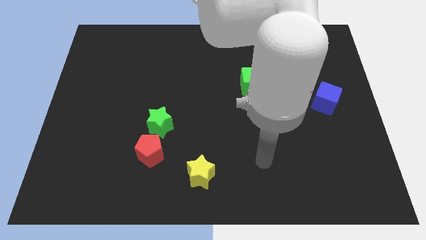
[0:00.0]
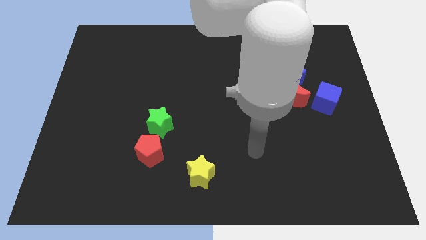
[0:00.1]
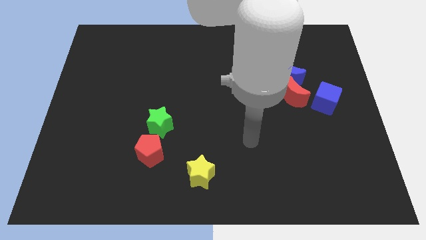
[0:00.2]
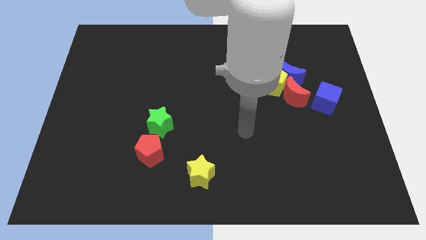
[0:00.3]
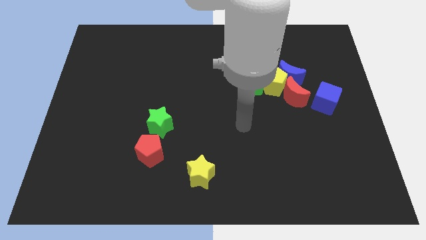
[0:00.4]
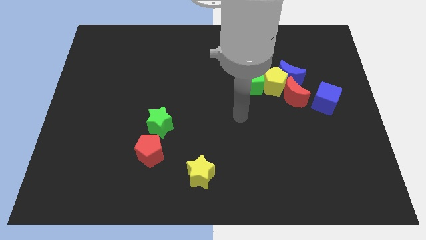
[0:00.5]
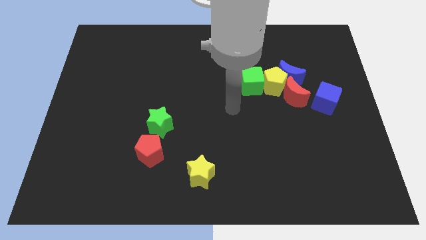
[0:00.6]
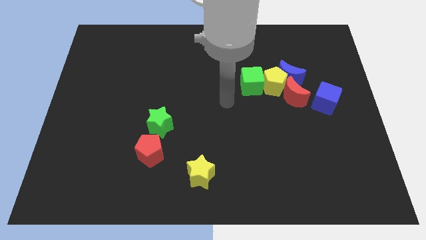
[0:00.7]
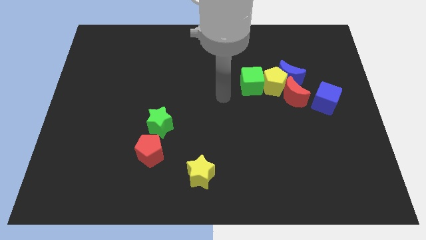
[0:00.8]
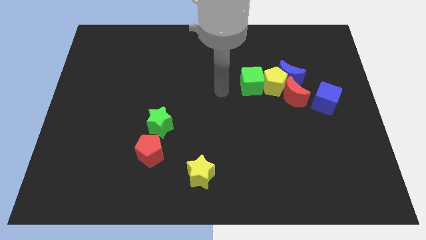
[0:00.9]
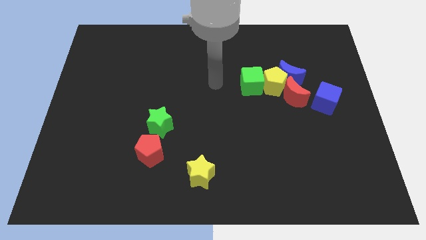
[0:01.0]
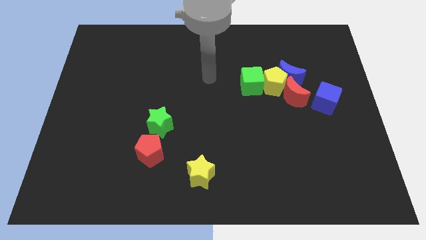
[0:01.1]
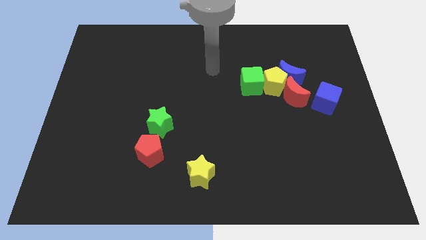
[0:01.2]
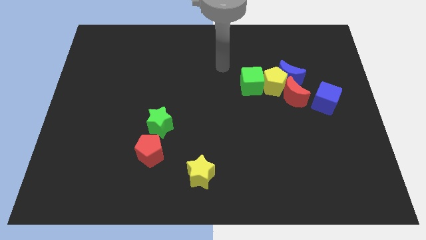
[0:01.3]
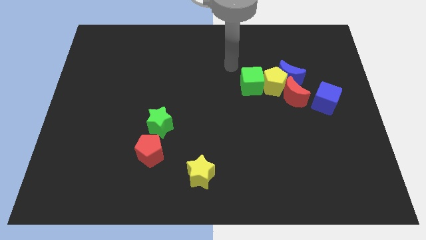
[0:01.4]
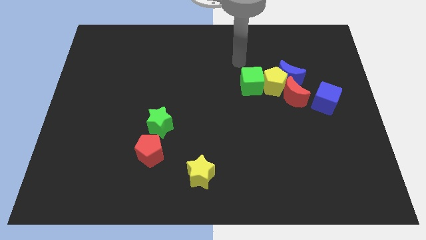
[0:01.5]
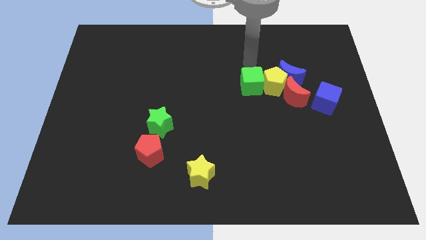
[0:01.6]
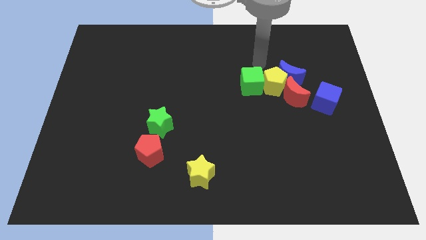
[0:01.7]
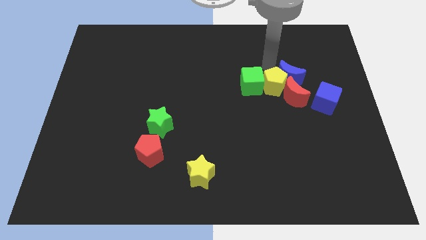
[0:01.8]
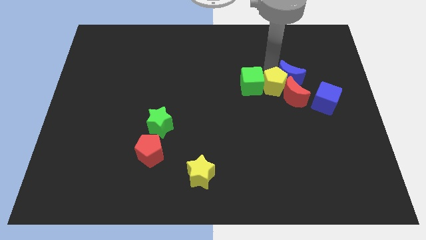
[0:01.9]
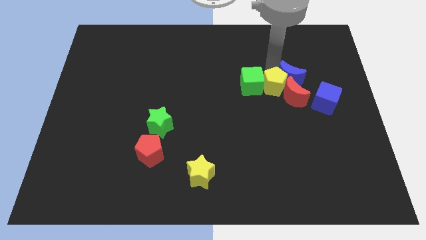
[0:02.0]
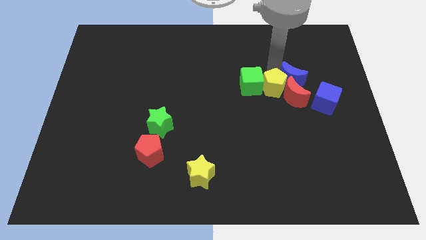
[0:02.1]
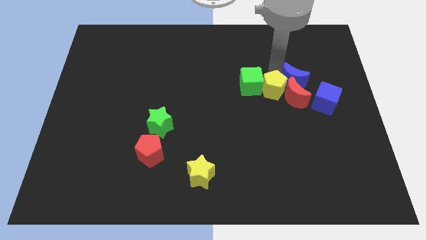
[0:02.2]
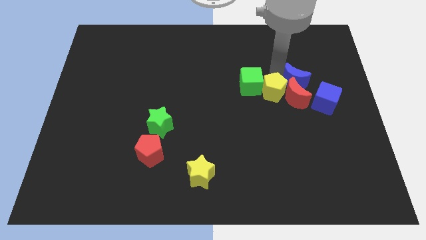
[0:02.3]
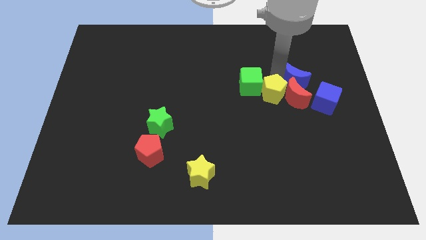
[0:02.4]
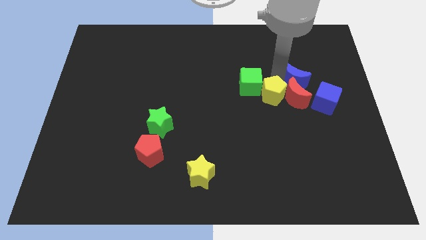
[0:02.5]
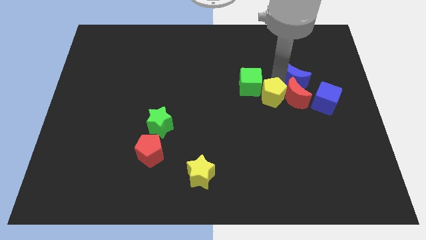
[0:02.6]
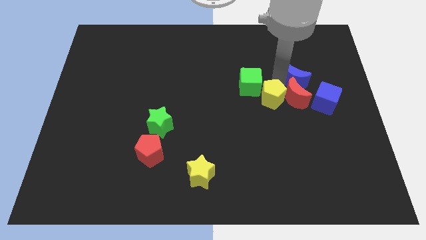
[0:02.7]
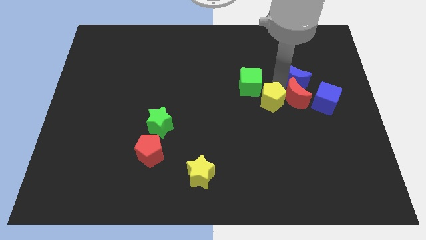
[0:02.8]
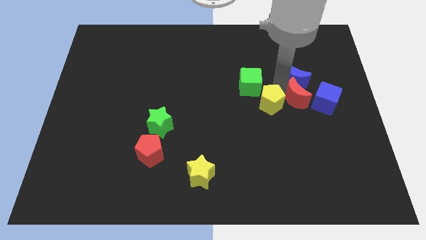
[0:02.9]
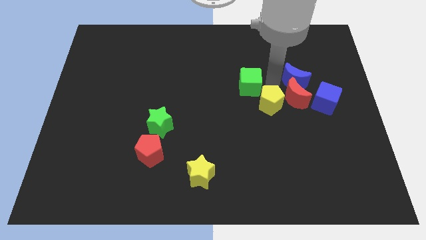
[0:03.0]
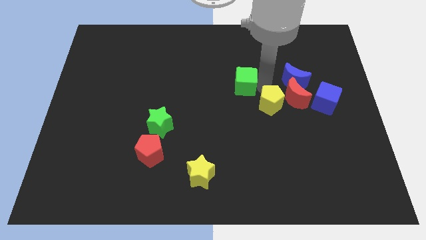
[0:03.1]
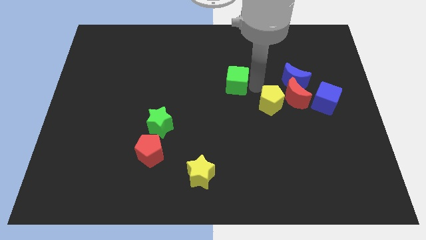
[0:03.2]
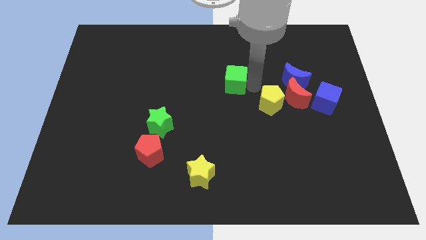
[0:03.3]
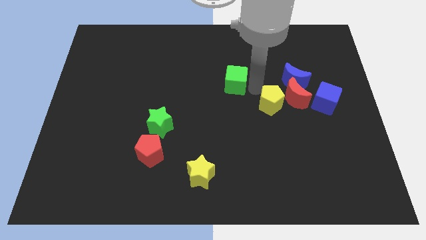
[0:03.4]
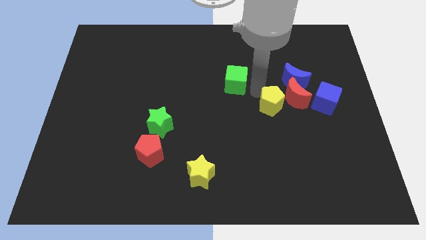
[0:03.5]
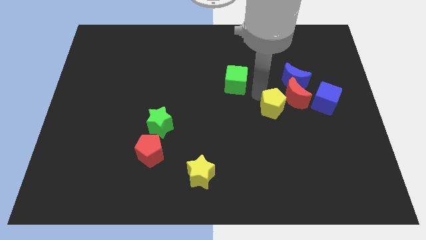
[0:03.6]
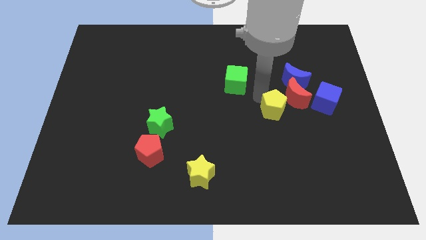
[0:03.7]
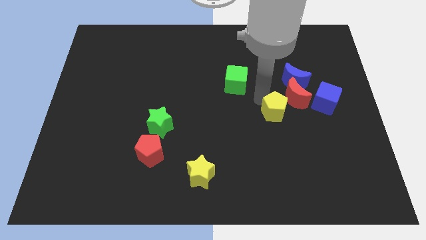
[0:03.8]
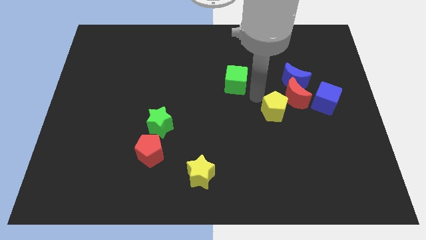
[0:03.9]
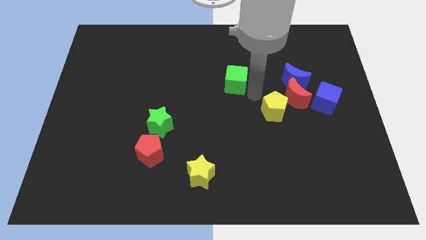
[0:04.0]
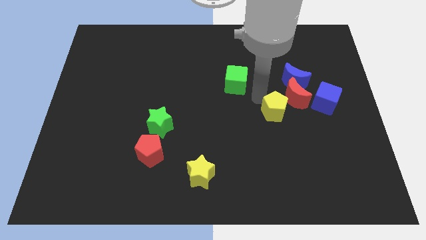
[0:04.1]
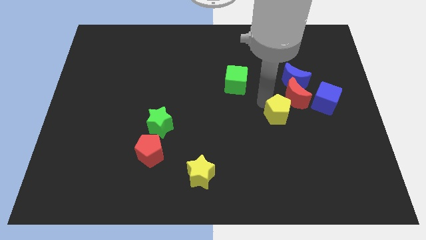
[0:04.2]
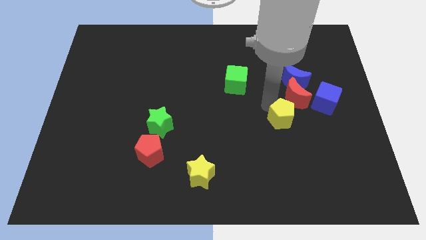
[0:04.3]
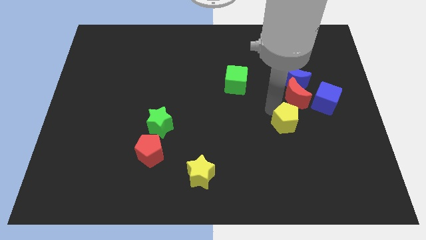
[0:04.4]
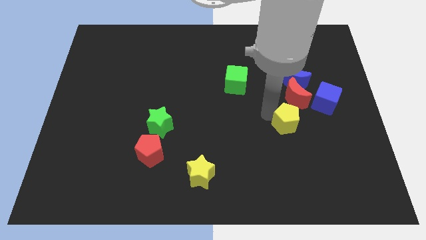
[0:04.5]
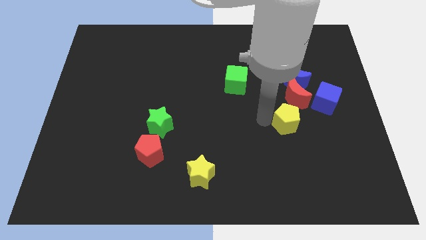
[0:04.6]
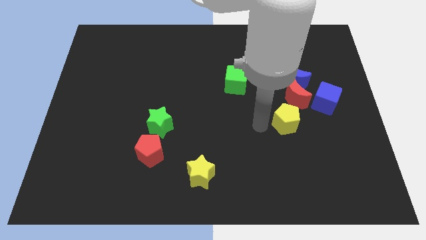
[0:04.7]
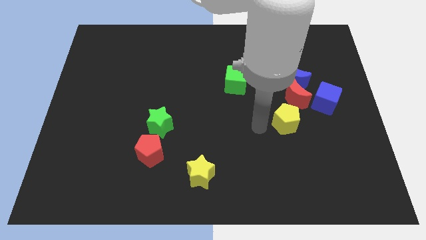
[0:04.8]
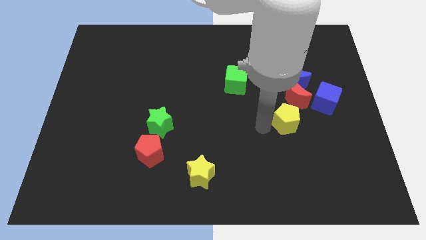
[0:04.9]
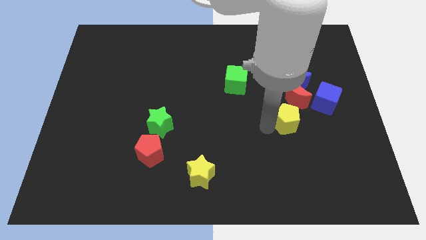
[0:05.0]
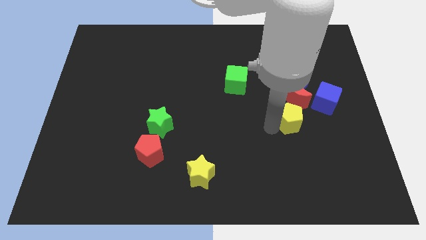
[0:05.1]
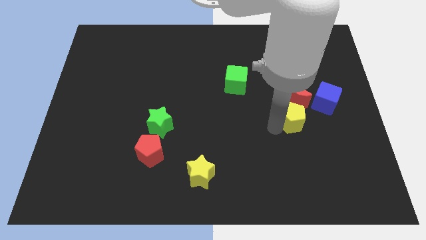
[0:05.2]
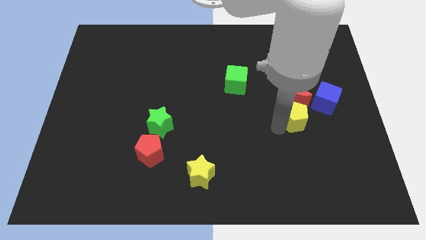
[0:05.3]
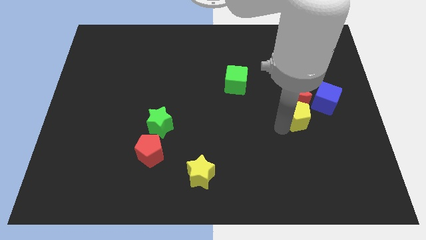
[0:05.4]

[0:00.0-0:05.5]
move the yellow pentagon to the bottom right side of the red moon

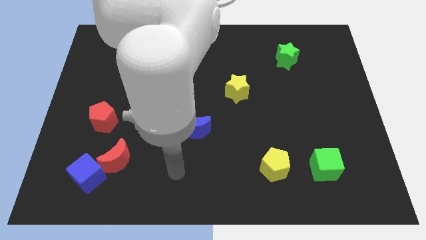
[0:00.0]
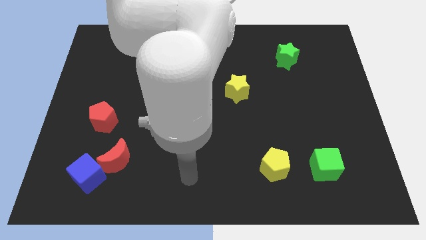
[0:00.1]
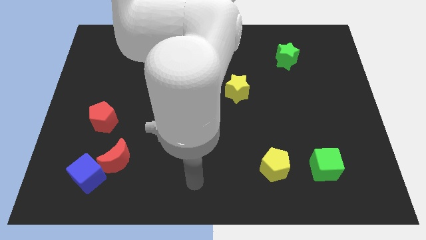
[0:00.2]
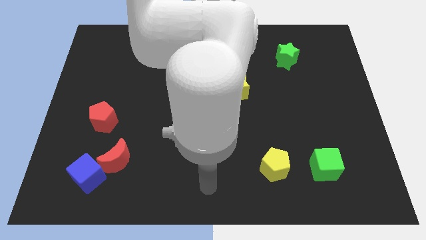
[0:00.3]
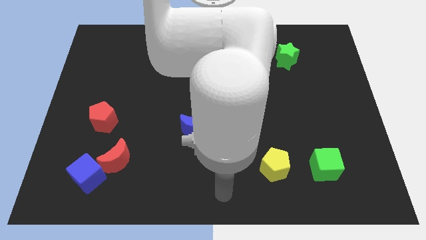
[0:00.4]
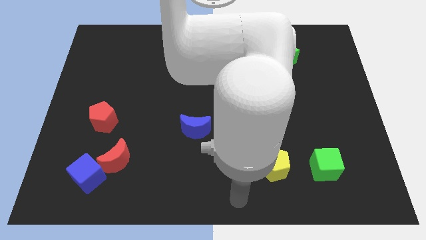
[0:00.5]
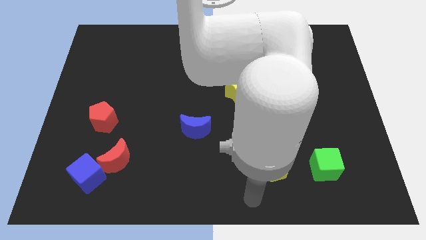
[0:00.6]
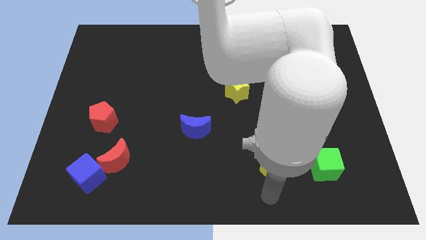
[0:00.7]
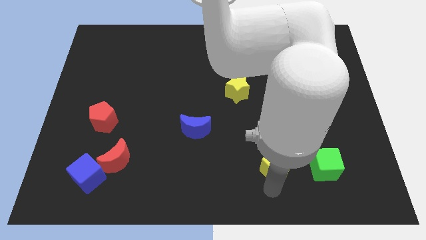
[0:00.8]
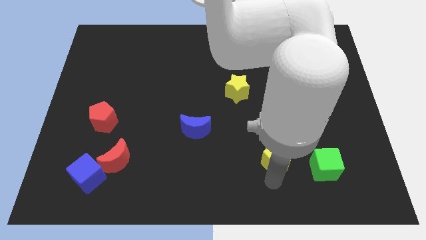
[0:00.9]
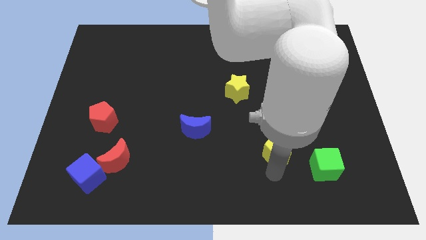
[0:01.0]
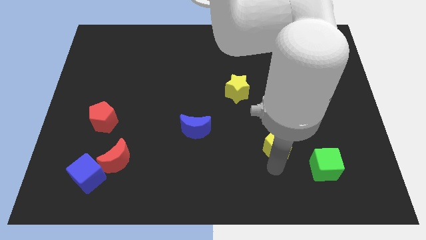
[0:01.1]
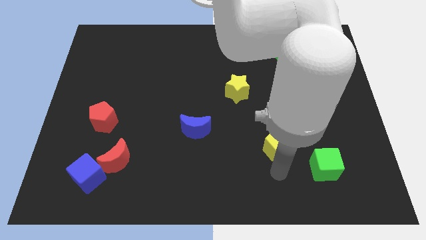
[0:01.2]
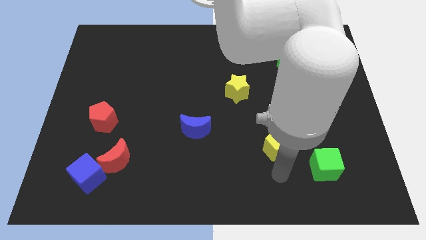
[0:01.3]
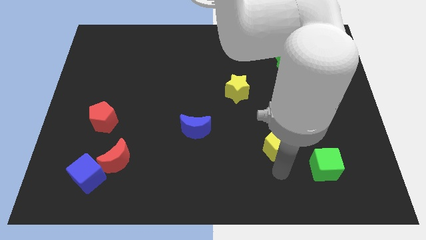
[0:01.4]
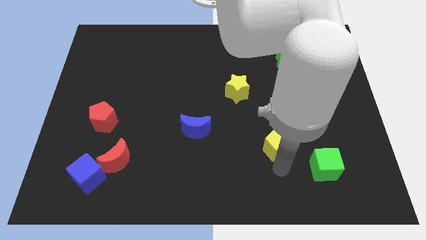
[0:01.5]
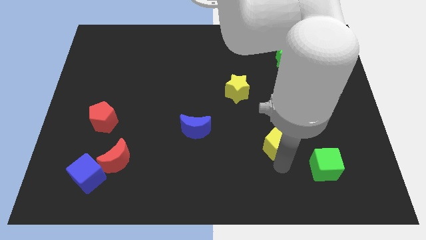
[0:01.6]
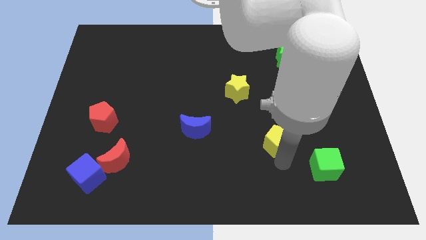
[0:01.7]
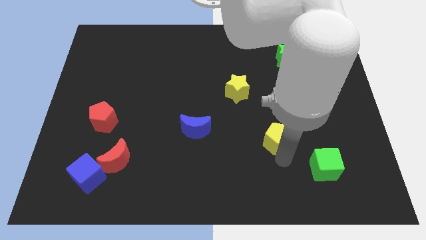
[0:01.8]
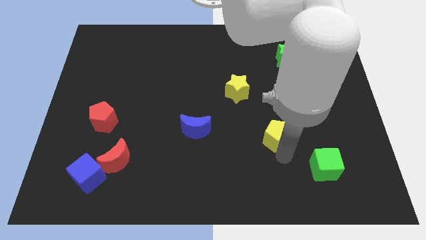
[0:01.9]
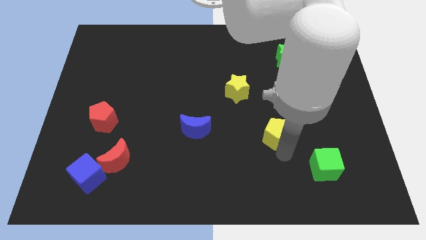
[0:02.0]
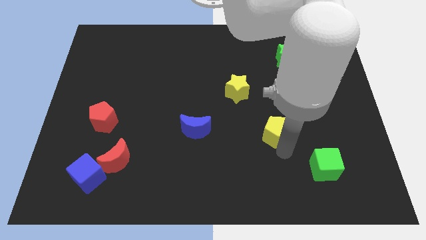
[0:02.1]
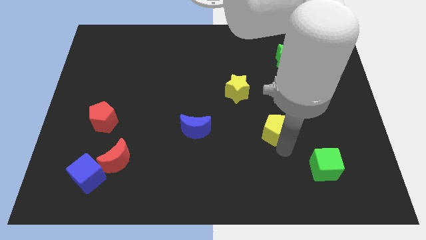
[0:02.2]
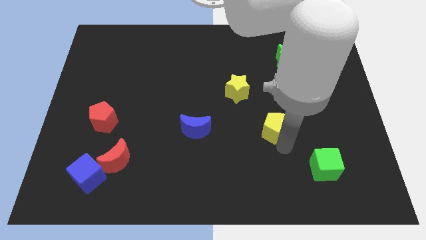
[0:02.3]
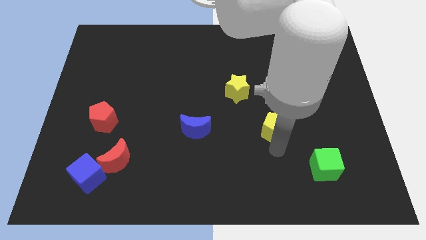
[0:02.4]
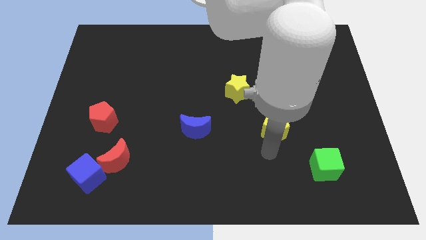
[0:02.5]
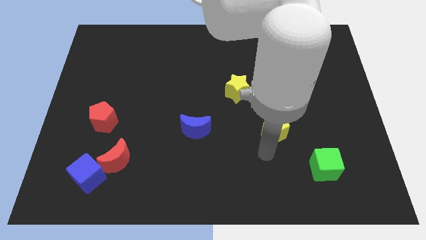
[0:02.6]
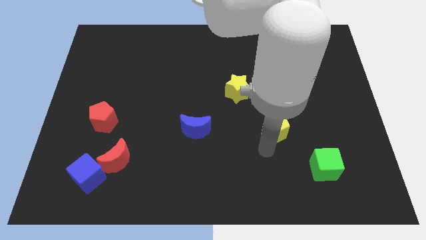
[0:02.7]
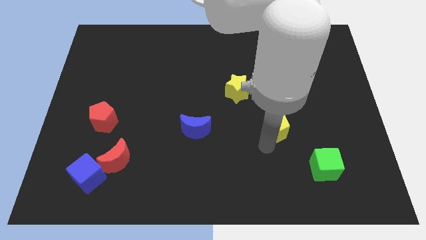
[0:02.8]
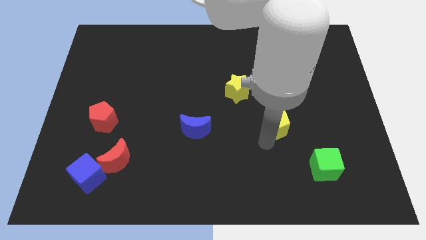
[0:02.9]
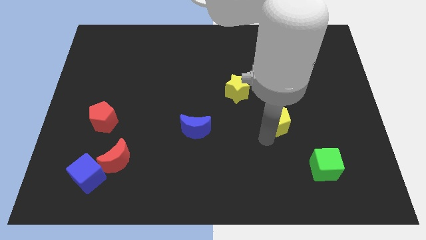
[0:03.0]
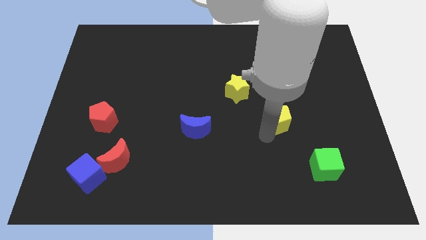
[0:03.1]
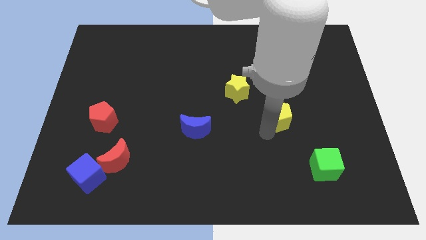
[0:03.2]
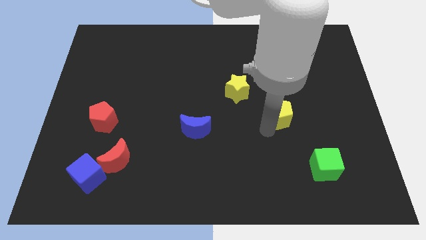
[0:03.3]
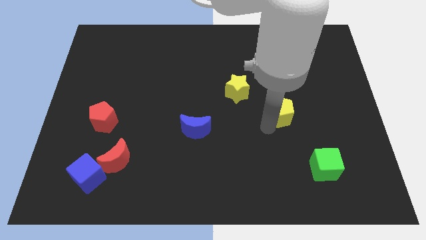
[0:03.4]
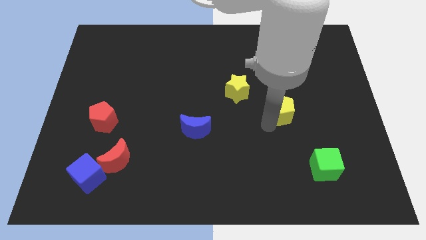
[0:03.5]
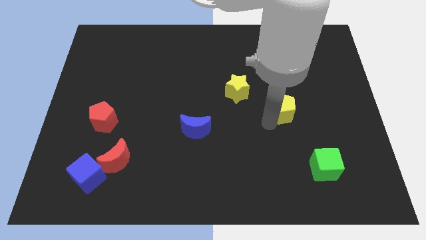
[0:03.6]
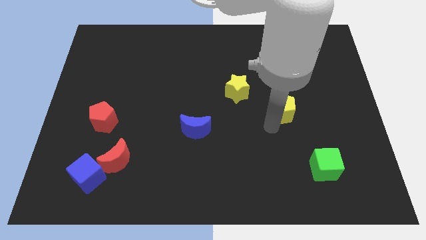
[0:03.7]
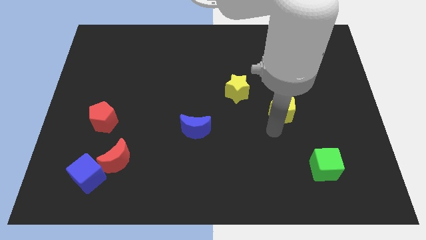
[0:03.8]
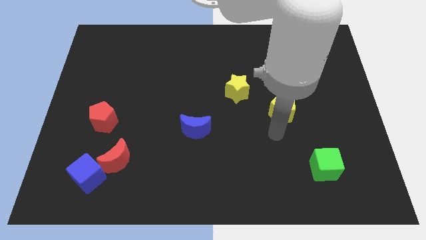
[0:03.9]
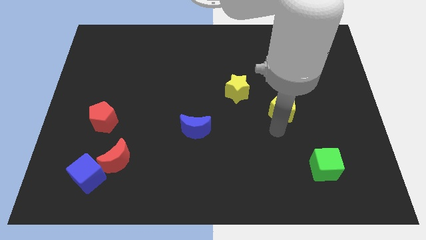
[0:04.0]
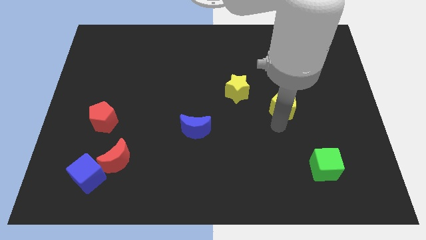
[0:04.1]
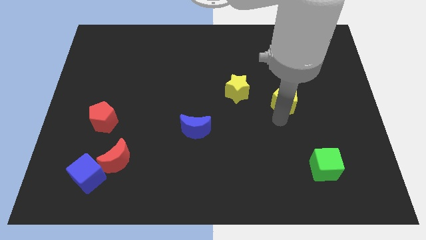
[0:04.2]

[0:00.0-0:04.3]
push the yellow pentagon below the green star
